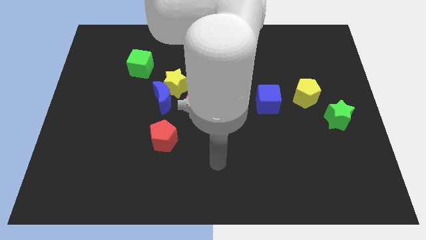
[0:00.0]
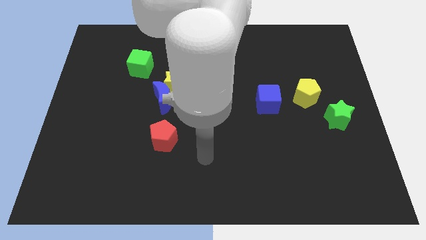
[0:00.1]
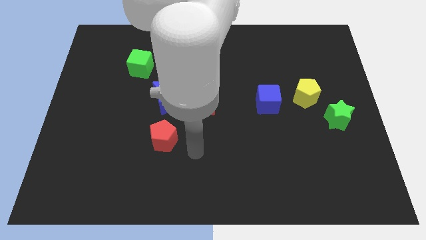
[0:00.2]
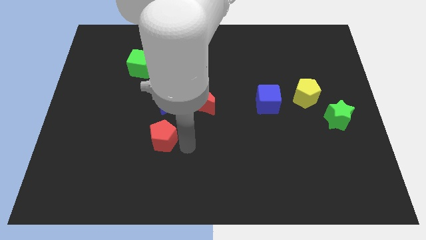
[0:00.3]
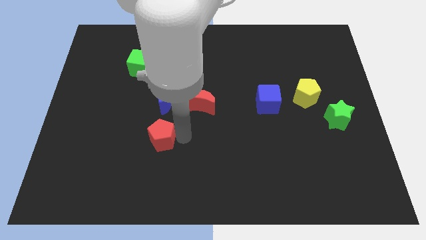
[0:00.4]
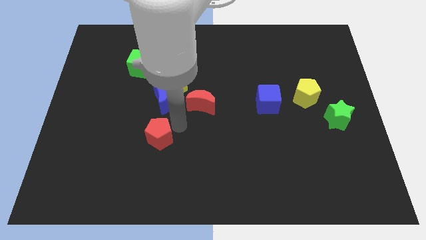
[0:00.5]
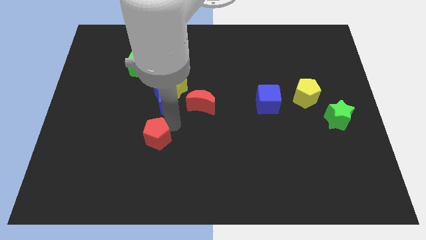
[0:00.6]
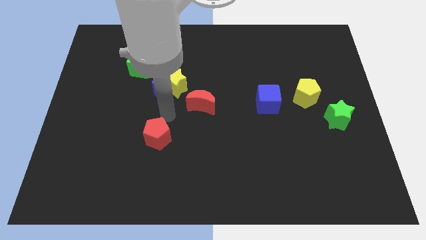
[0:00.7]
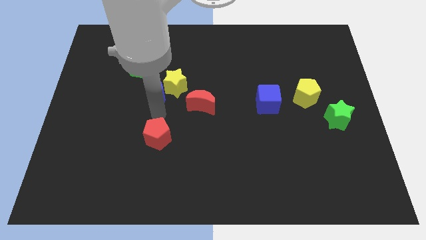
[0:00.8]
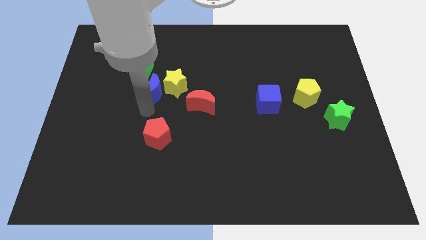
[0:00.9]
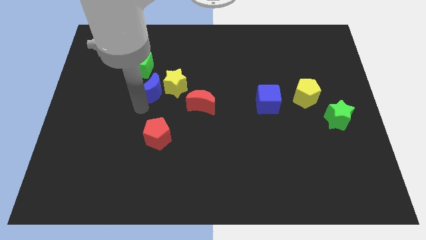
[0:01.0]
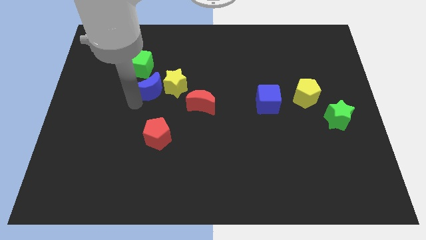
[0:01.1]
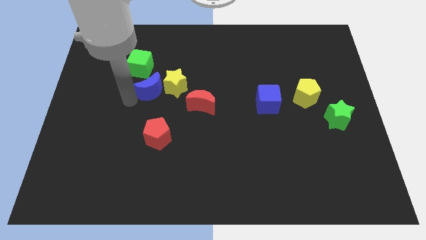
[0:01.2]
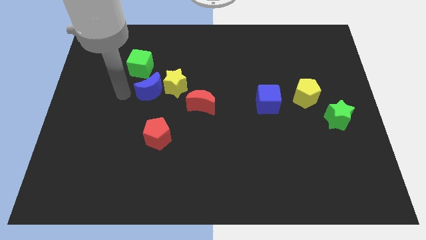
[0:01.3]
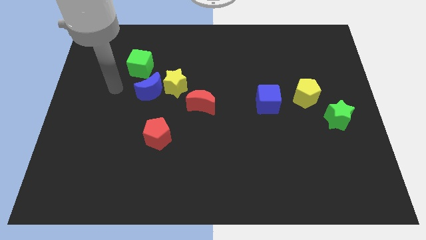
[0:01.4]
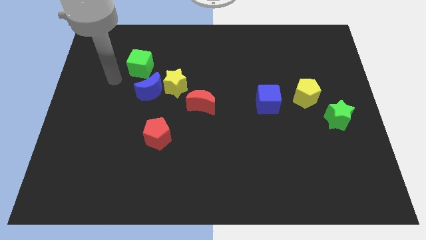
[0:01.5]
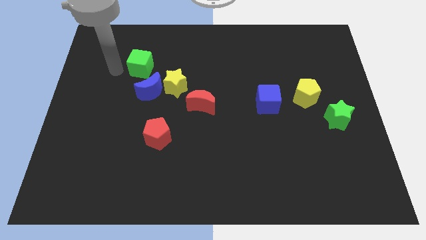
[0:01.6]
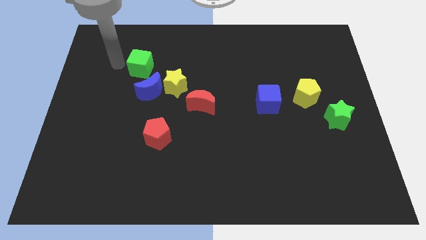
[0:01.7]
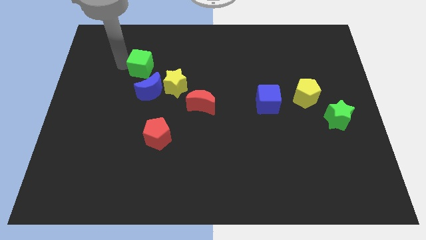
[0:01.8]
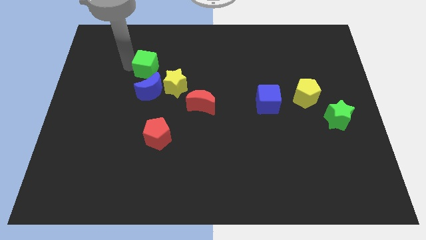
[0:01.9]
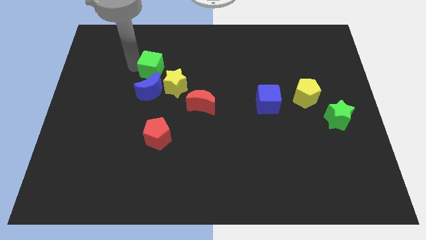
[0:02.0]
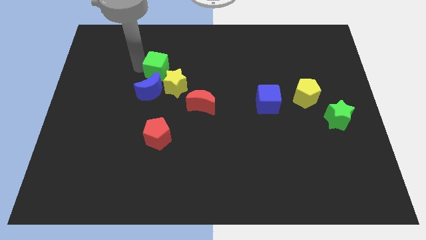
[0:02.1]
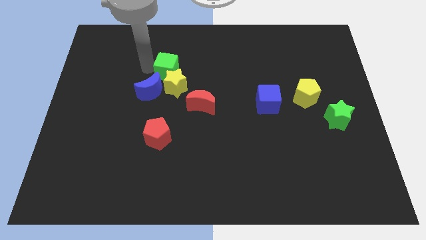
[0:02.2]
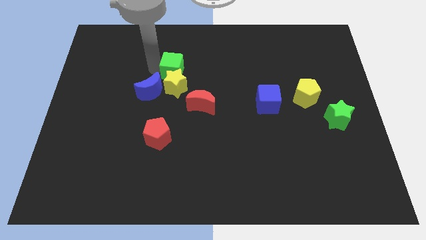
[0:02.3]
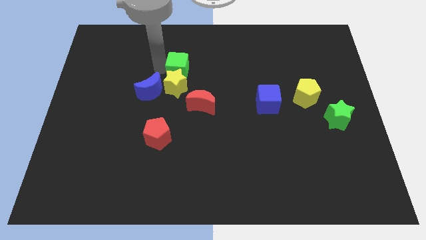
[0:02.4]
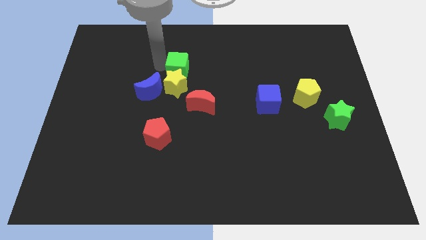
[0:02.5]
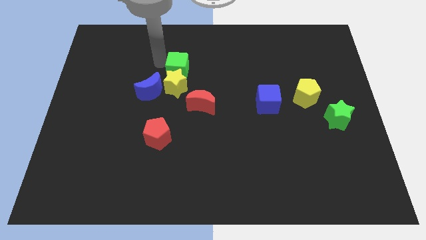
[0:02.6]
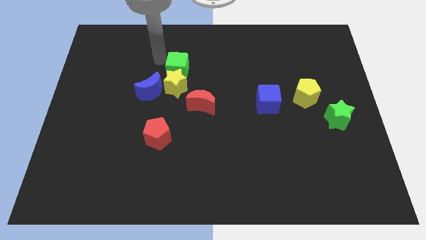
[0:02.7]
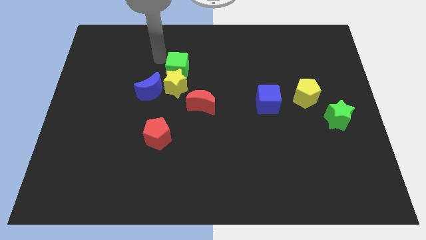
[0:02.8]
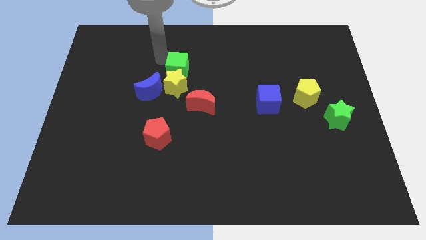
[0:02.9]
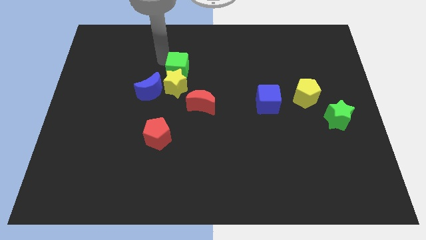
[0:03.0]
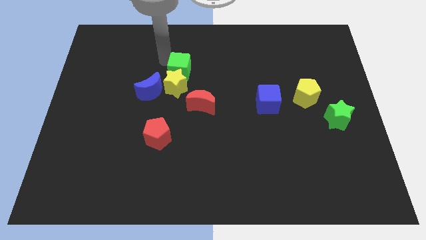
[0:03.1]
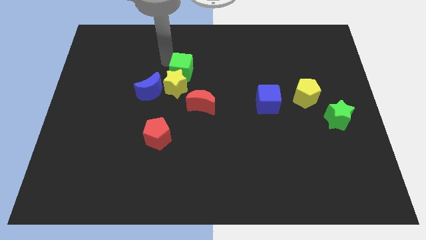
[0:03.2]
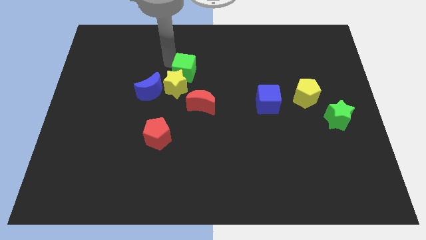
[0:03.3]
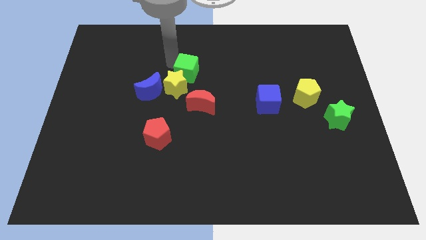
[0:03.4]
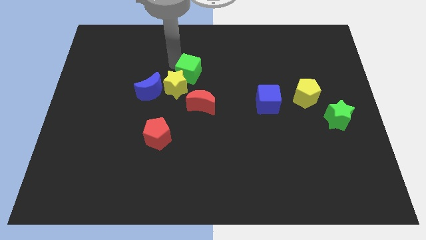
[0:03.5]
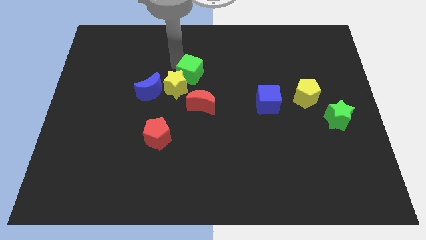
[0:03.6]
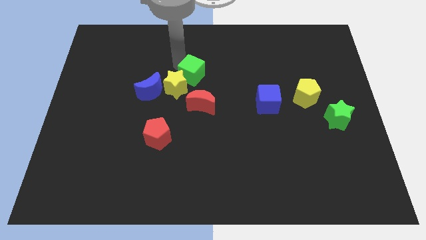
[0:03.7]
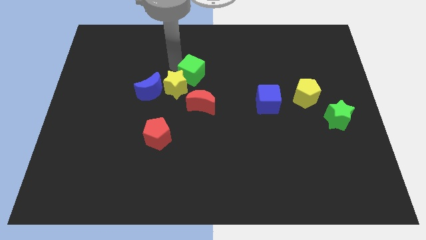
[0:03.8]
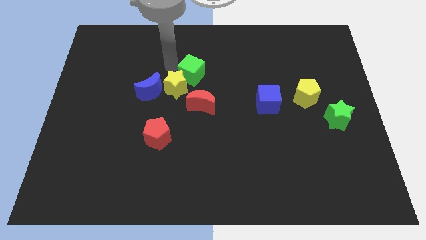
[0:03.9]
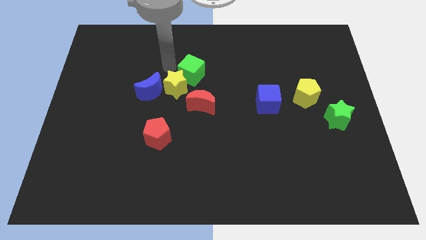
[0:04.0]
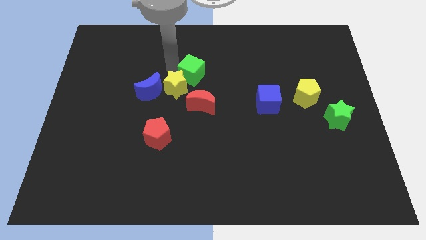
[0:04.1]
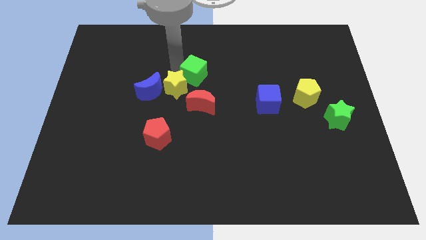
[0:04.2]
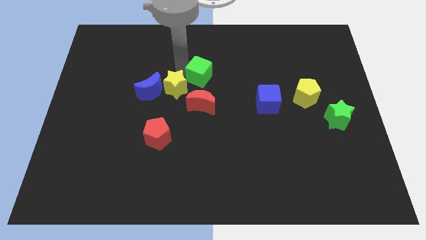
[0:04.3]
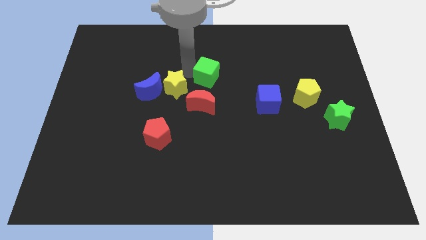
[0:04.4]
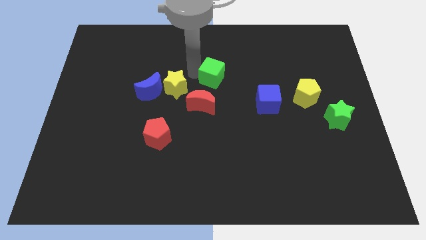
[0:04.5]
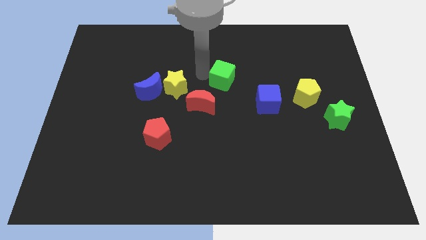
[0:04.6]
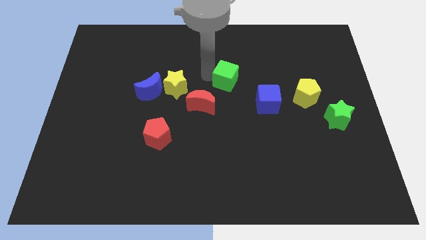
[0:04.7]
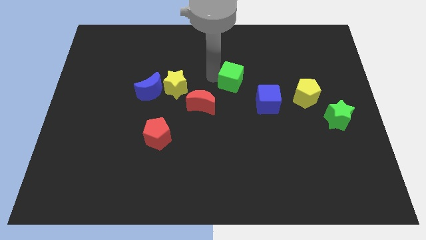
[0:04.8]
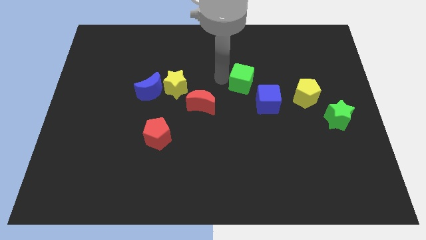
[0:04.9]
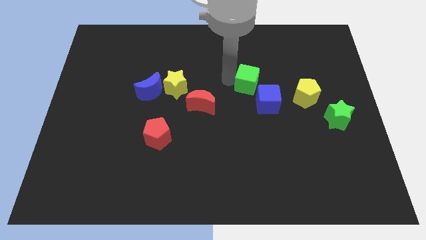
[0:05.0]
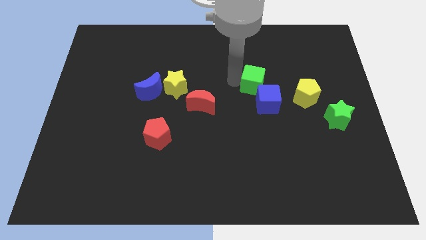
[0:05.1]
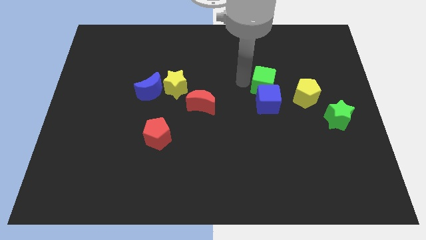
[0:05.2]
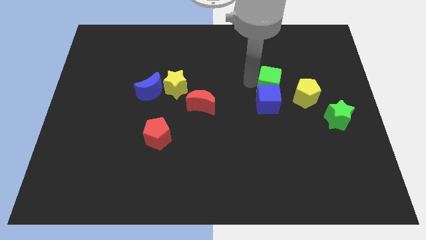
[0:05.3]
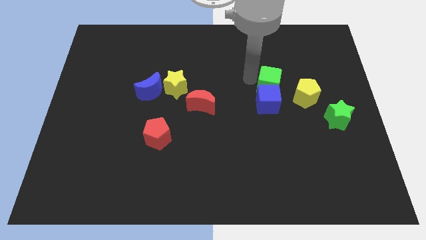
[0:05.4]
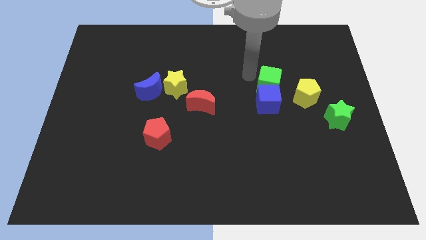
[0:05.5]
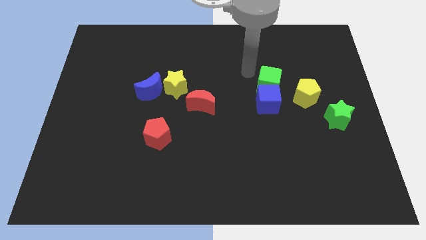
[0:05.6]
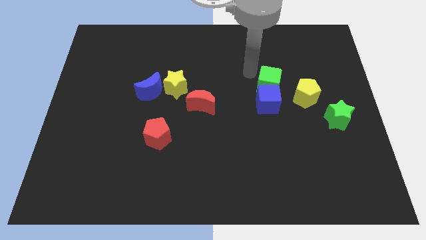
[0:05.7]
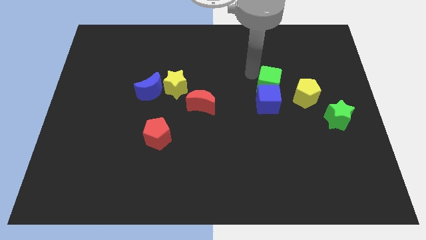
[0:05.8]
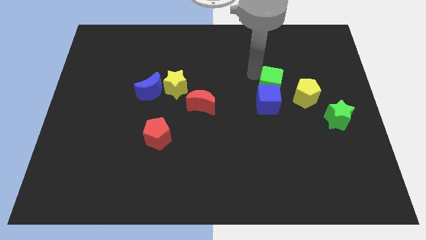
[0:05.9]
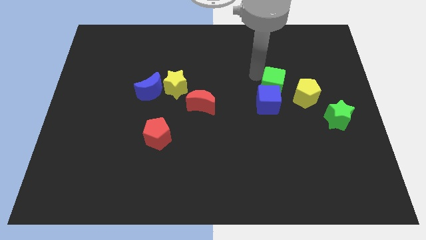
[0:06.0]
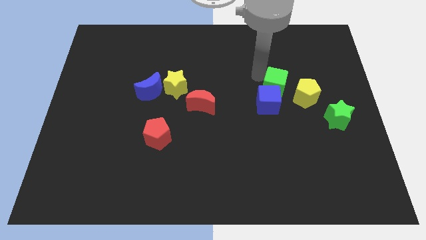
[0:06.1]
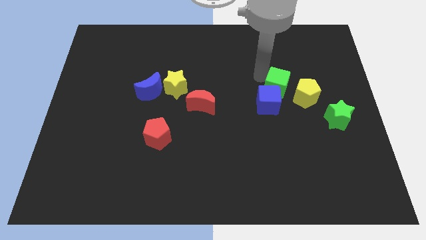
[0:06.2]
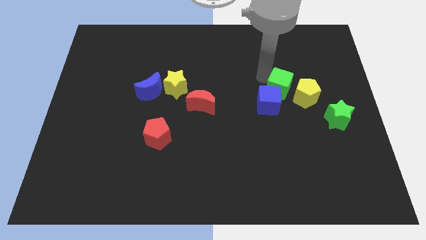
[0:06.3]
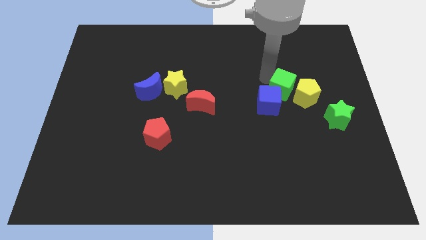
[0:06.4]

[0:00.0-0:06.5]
slide the green cube towards the yellow pentagon
